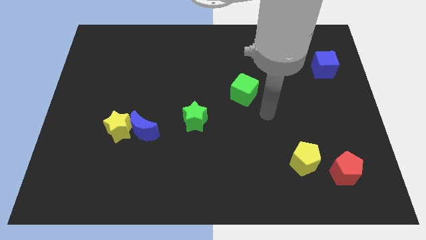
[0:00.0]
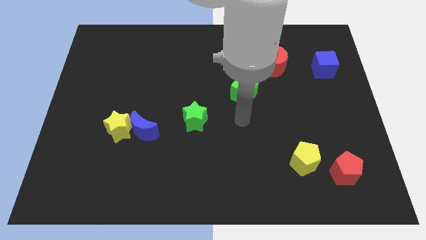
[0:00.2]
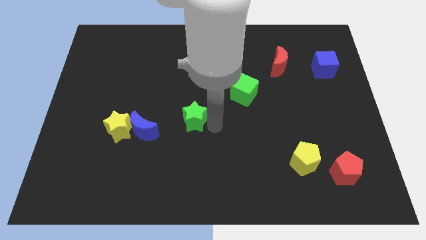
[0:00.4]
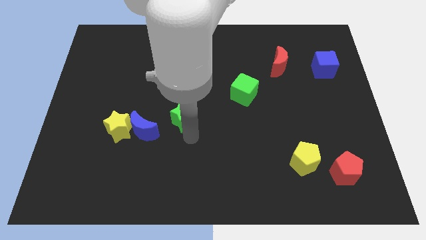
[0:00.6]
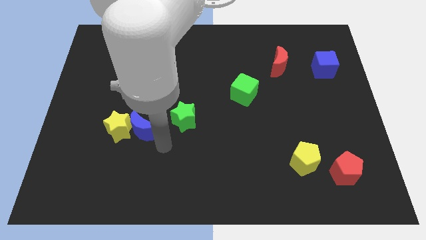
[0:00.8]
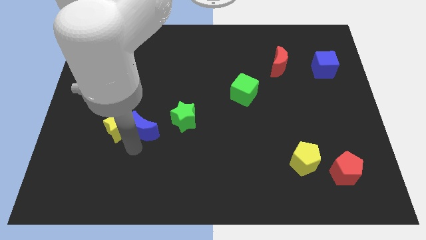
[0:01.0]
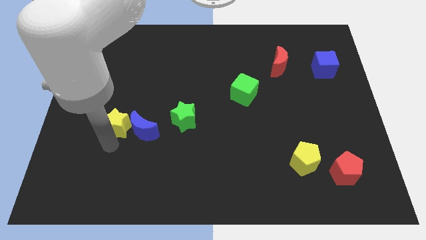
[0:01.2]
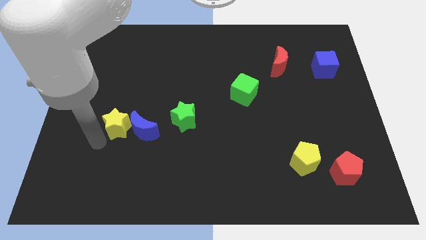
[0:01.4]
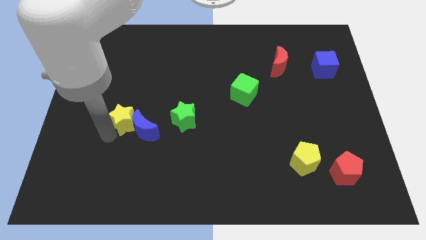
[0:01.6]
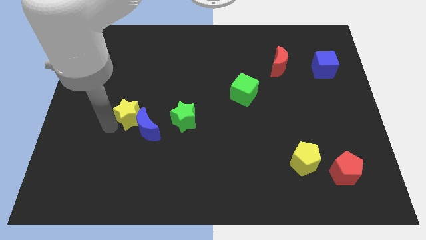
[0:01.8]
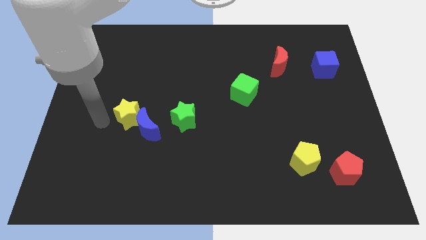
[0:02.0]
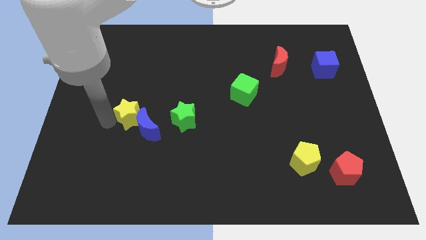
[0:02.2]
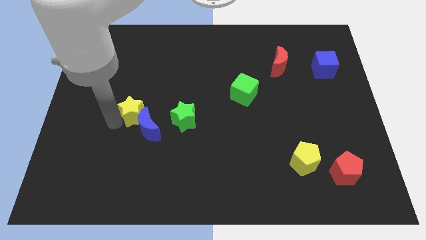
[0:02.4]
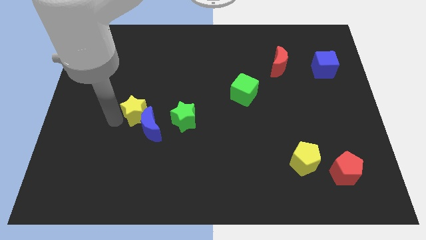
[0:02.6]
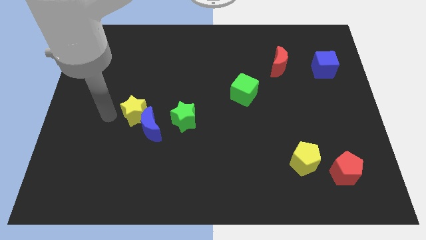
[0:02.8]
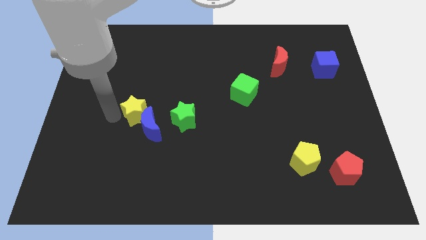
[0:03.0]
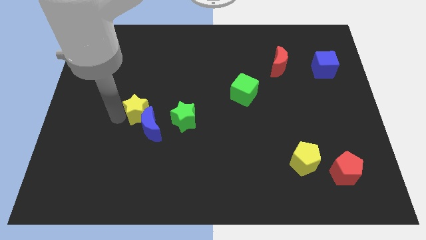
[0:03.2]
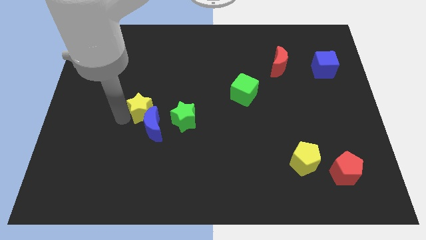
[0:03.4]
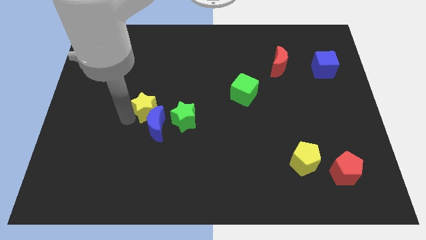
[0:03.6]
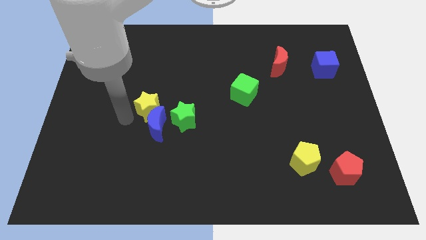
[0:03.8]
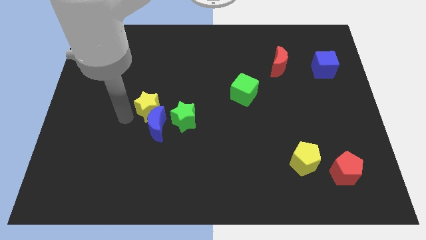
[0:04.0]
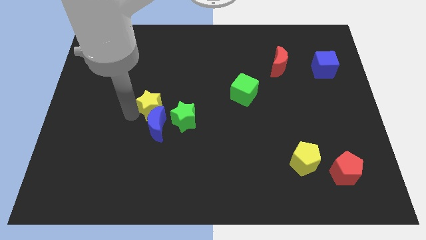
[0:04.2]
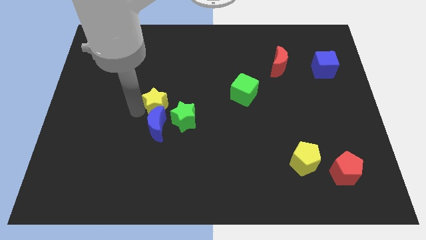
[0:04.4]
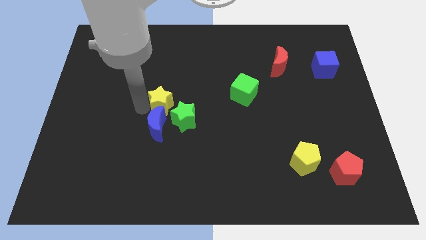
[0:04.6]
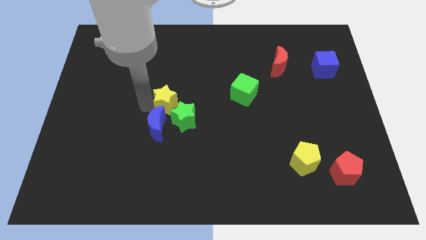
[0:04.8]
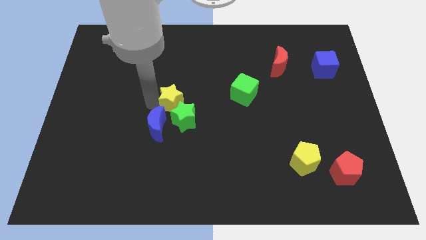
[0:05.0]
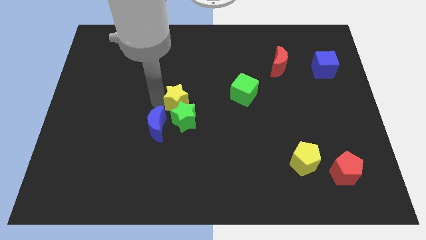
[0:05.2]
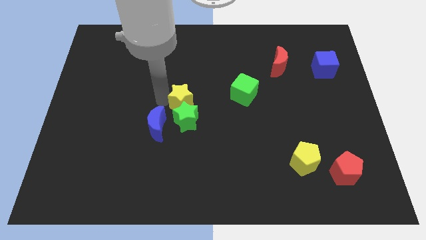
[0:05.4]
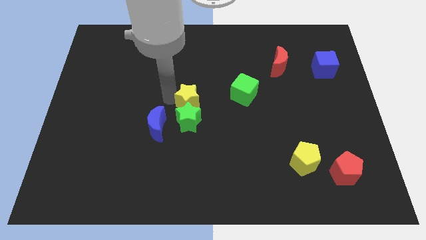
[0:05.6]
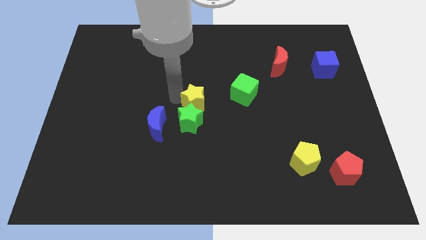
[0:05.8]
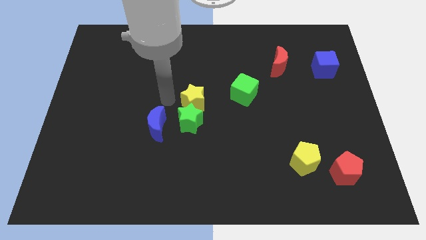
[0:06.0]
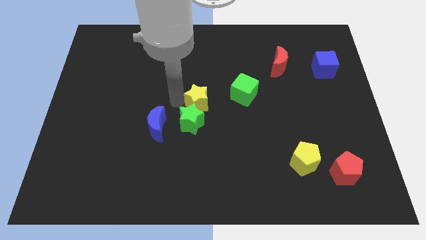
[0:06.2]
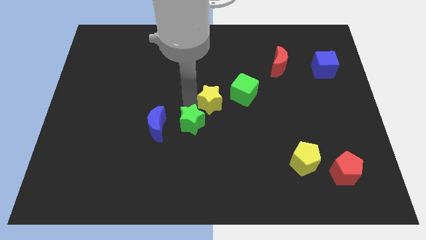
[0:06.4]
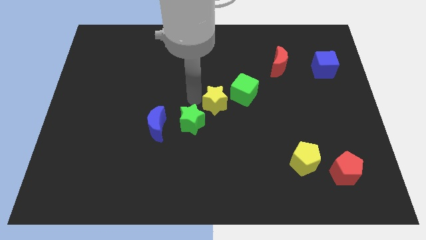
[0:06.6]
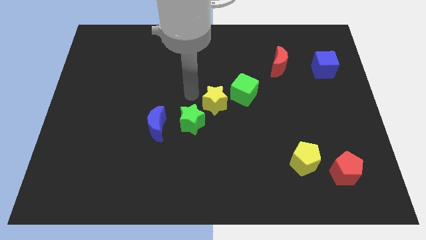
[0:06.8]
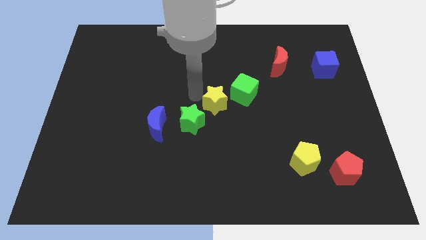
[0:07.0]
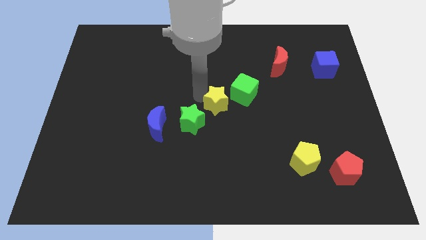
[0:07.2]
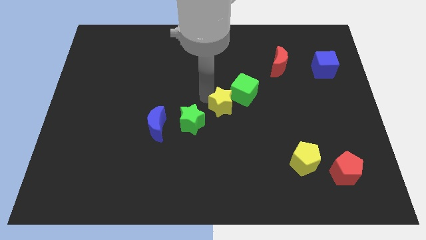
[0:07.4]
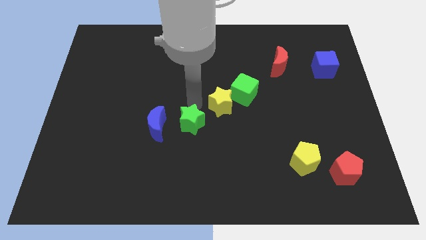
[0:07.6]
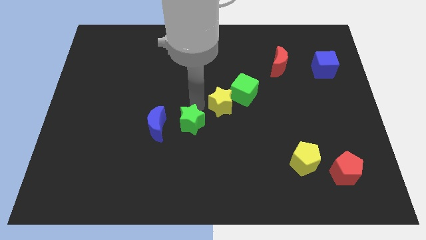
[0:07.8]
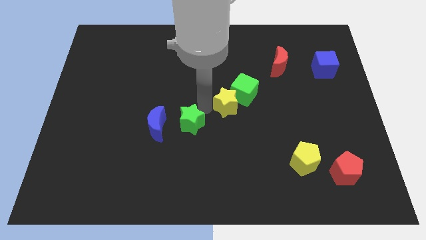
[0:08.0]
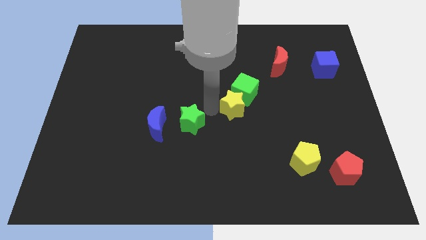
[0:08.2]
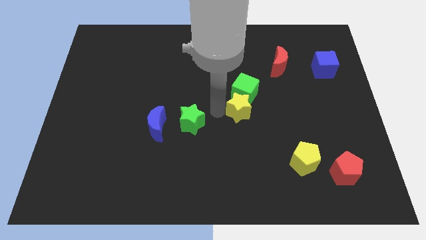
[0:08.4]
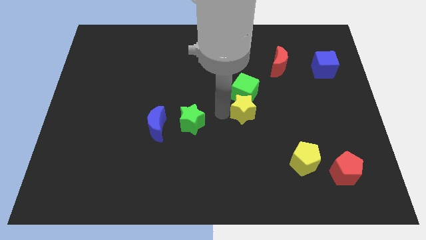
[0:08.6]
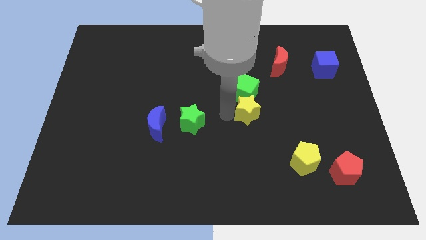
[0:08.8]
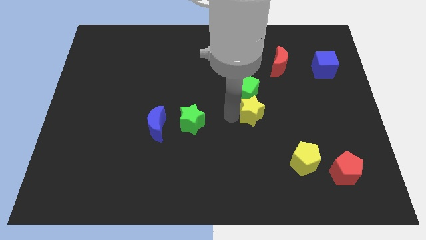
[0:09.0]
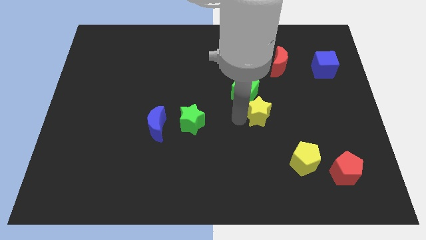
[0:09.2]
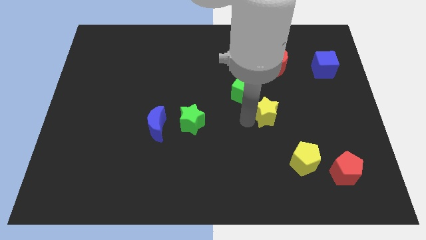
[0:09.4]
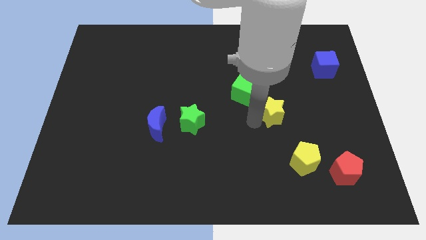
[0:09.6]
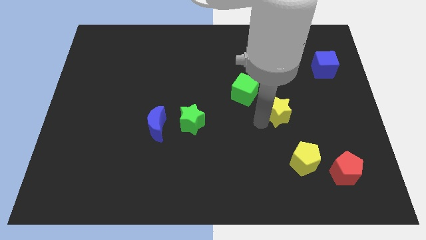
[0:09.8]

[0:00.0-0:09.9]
slide the yellow star below the red moon

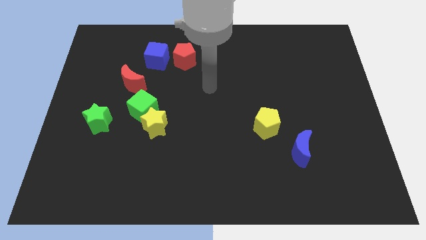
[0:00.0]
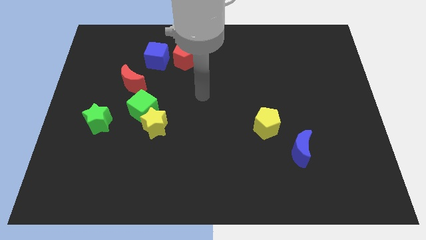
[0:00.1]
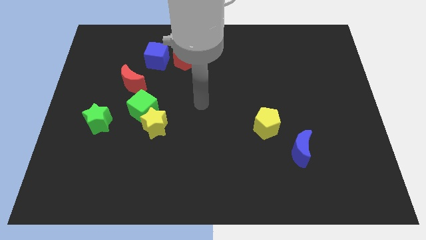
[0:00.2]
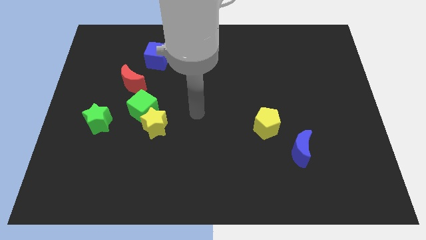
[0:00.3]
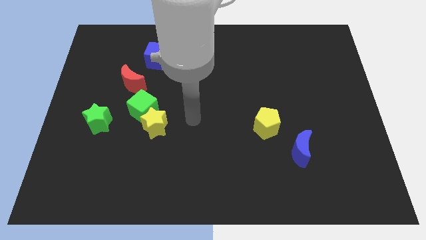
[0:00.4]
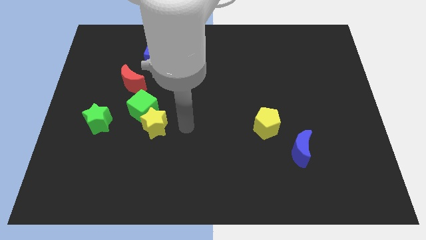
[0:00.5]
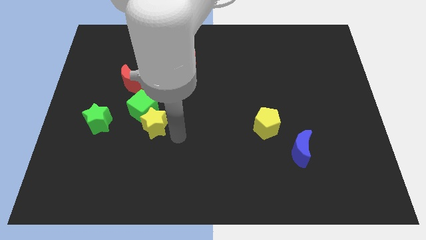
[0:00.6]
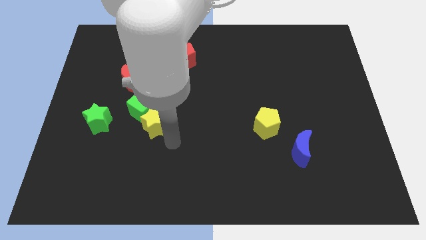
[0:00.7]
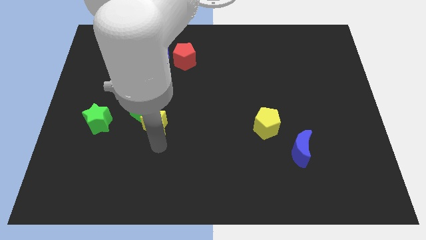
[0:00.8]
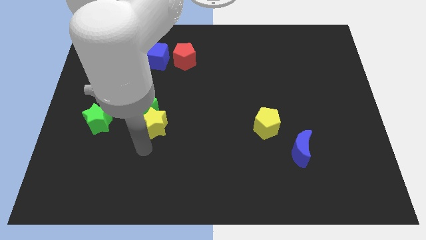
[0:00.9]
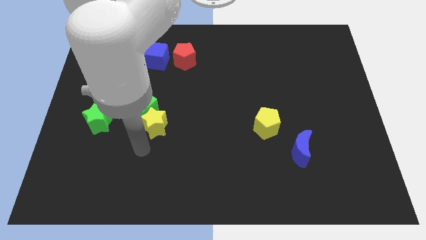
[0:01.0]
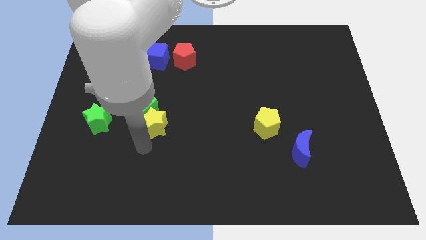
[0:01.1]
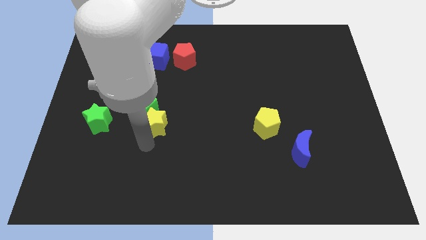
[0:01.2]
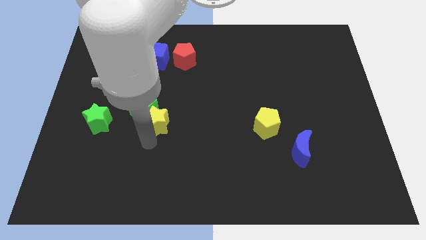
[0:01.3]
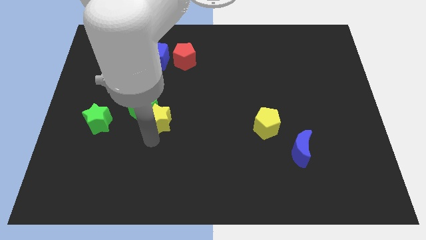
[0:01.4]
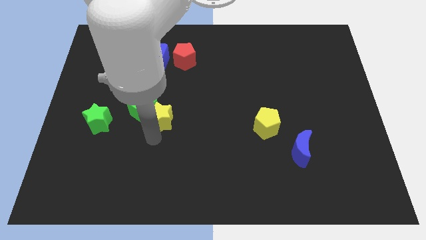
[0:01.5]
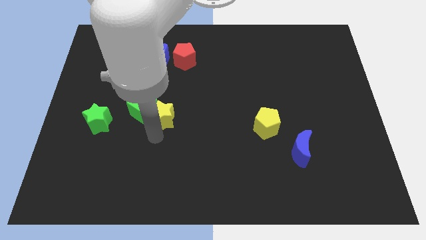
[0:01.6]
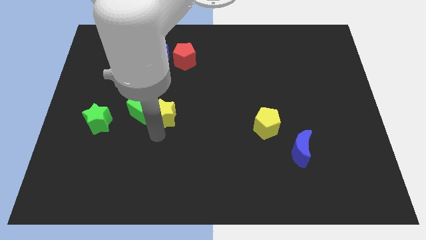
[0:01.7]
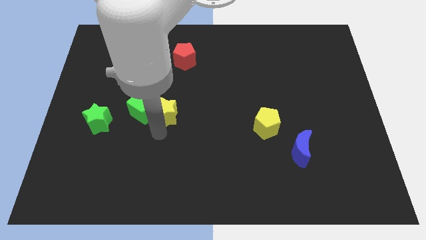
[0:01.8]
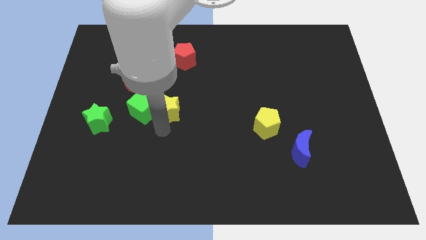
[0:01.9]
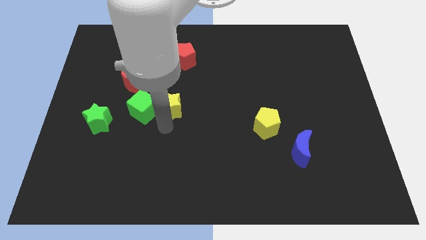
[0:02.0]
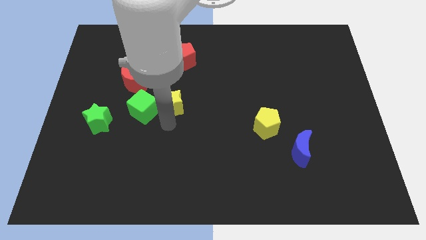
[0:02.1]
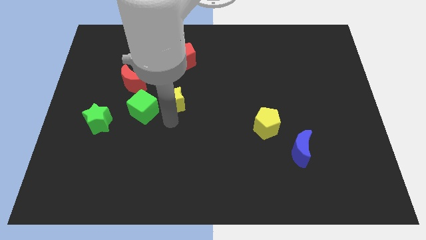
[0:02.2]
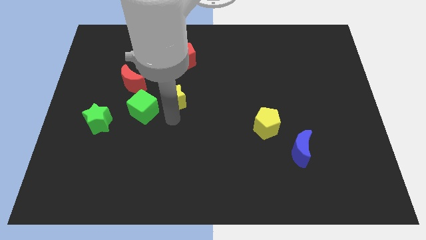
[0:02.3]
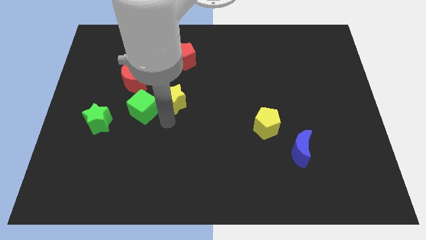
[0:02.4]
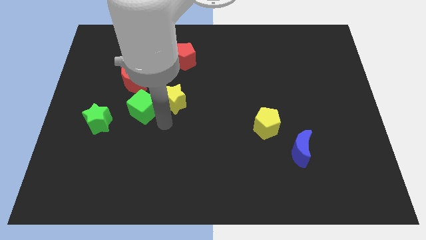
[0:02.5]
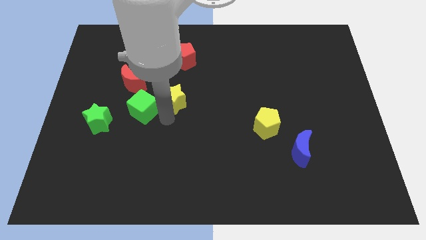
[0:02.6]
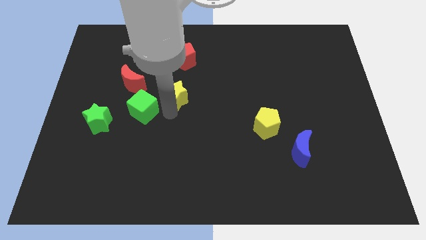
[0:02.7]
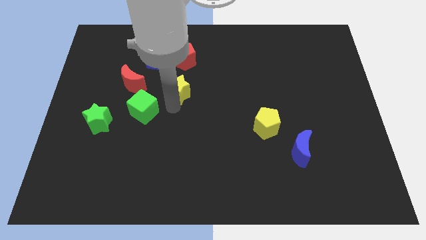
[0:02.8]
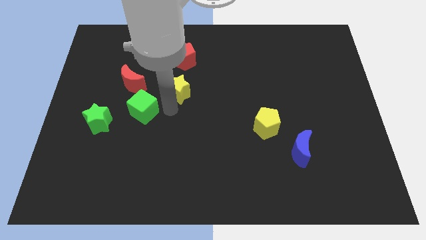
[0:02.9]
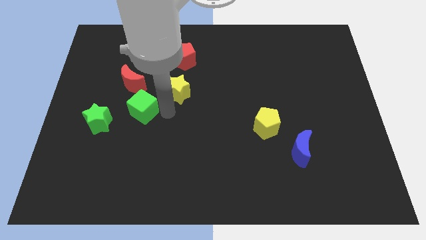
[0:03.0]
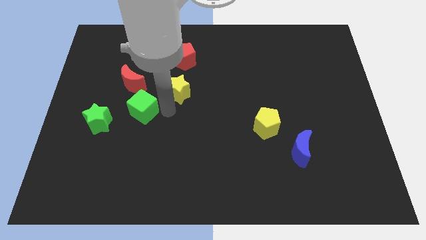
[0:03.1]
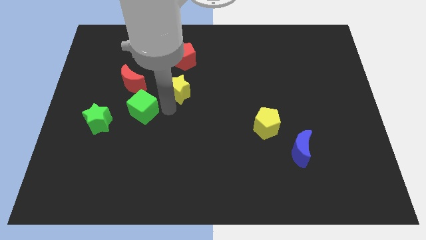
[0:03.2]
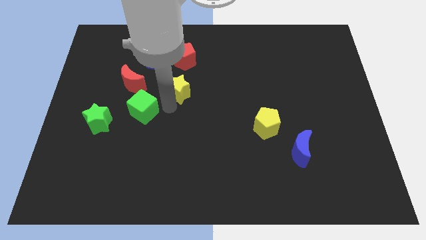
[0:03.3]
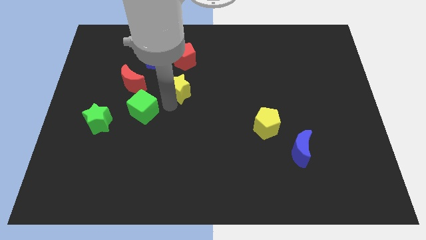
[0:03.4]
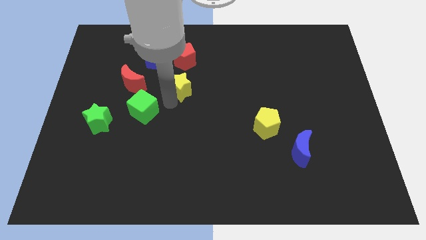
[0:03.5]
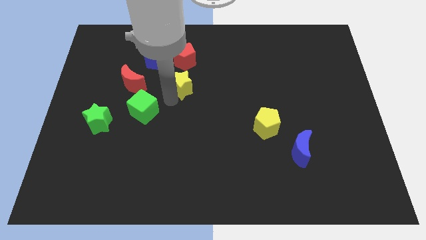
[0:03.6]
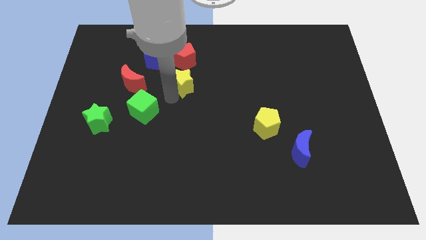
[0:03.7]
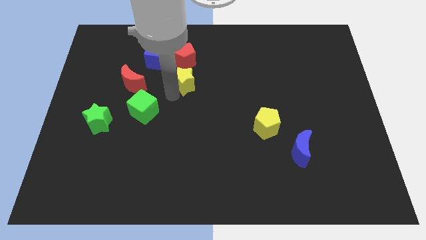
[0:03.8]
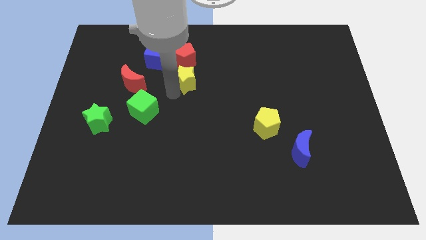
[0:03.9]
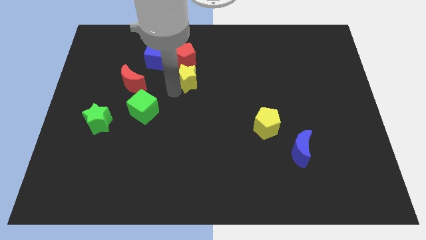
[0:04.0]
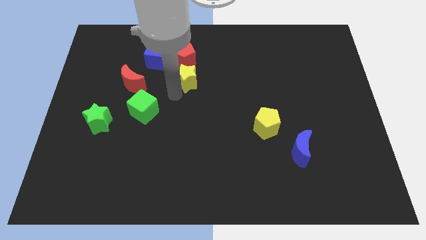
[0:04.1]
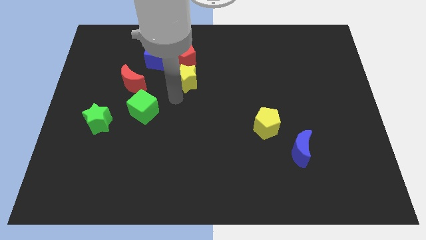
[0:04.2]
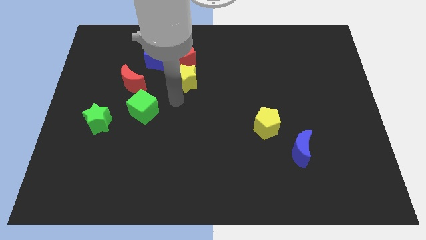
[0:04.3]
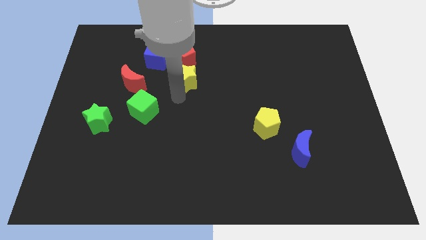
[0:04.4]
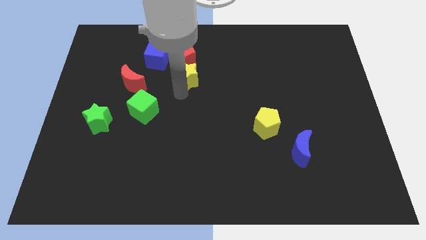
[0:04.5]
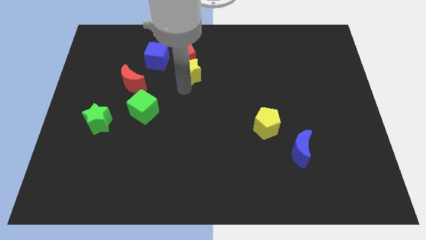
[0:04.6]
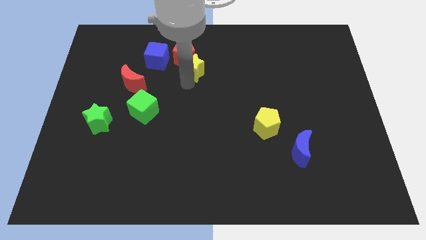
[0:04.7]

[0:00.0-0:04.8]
put the yellow star to the right of the blue cube
